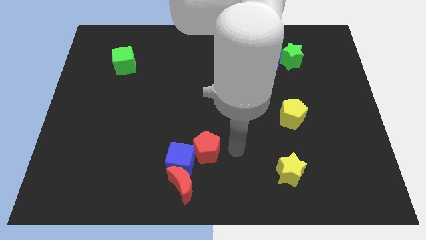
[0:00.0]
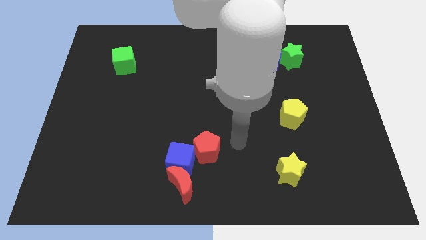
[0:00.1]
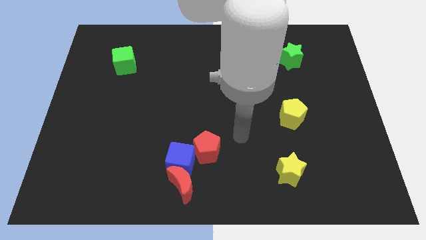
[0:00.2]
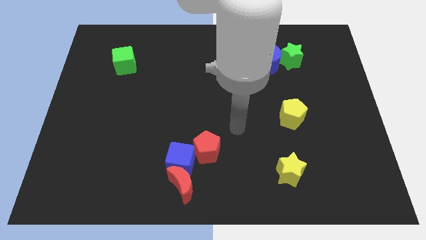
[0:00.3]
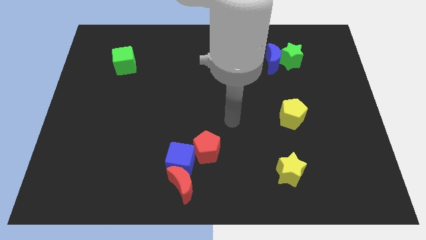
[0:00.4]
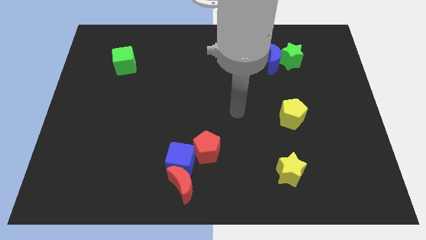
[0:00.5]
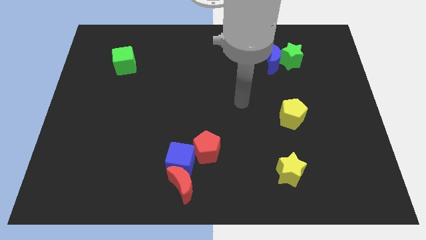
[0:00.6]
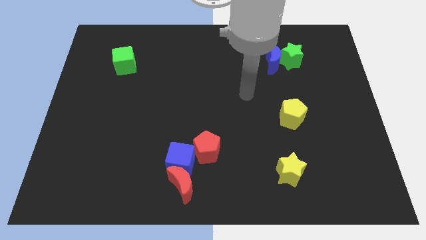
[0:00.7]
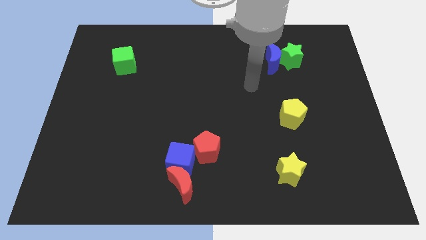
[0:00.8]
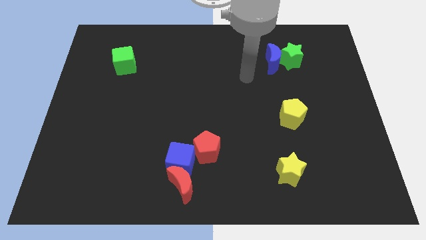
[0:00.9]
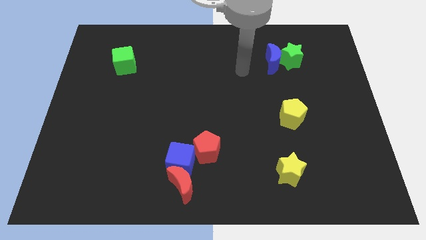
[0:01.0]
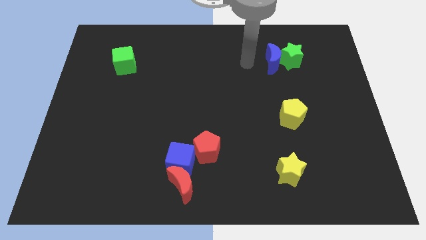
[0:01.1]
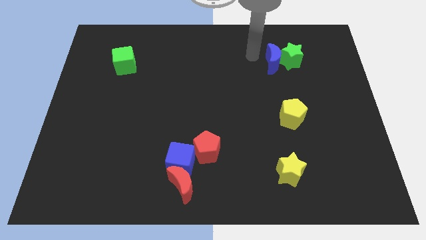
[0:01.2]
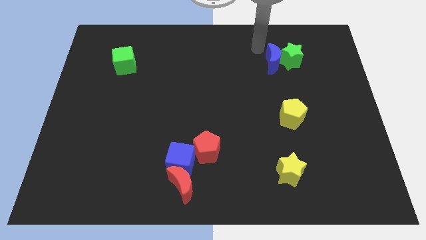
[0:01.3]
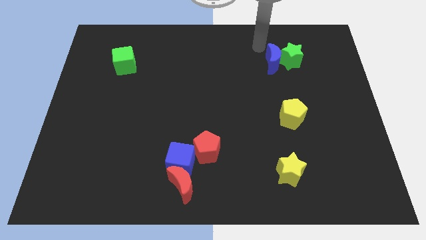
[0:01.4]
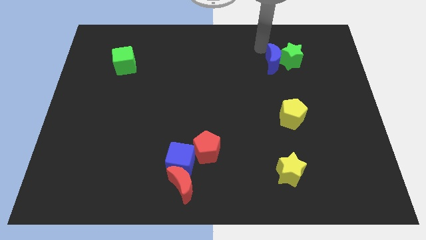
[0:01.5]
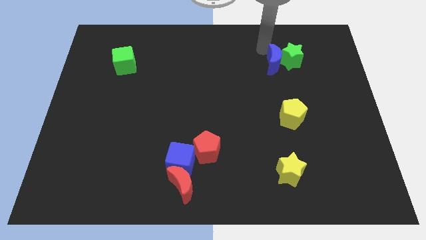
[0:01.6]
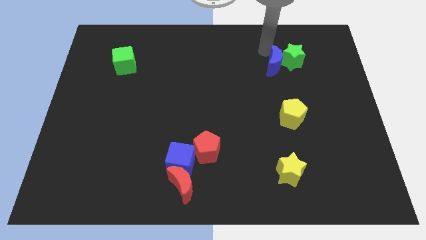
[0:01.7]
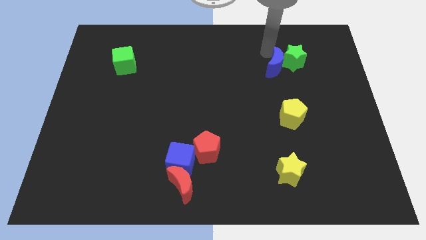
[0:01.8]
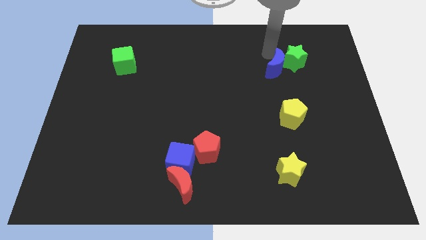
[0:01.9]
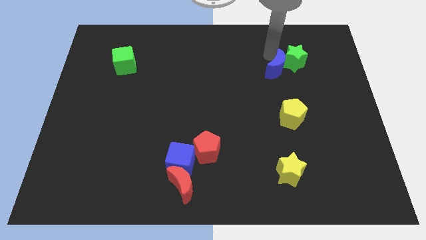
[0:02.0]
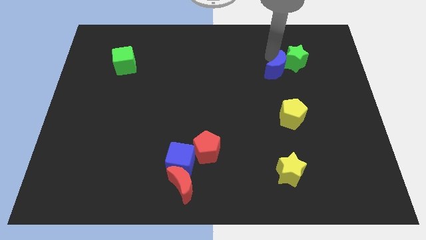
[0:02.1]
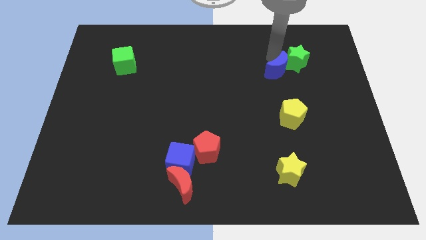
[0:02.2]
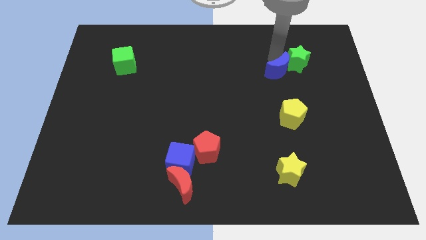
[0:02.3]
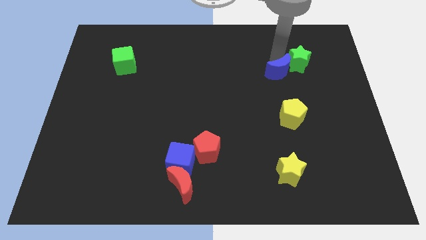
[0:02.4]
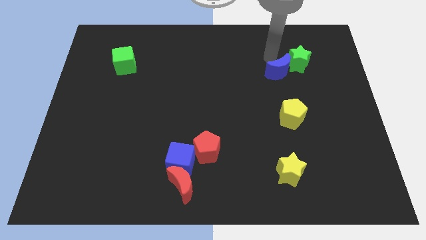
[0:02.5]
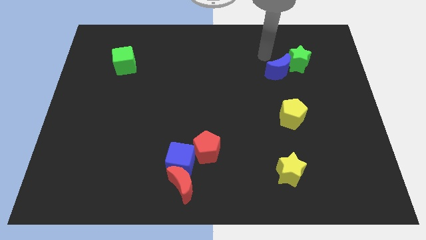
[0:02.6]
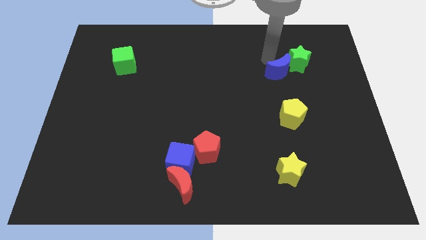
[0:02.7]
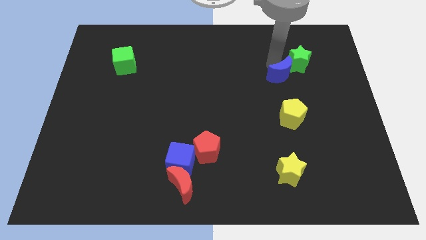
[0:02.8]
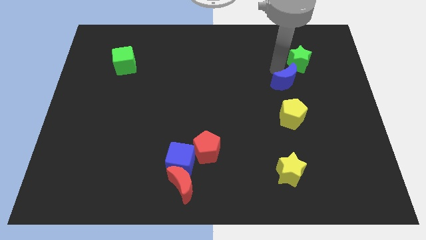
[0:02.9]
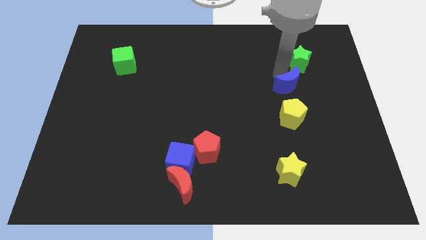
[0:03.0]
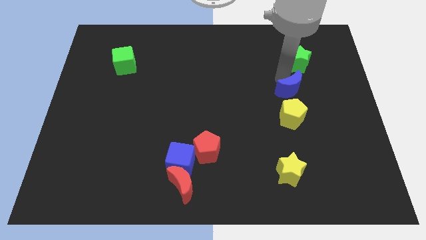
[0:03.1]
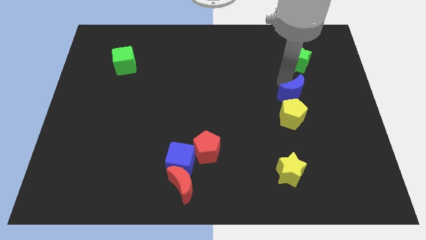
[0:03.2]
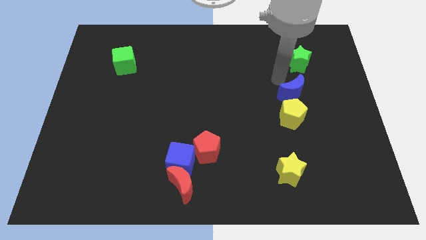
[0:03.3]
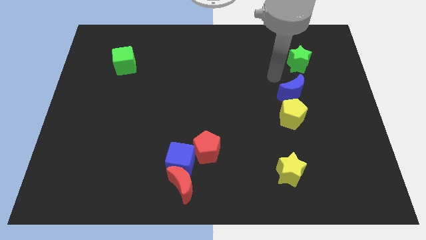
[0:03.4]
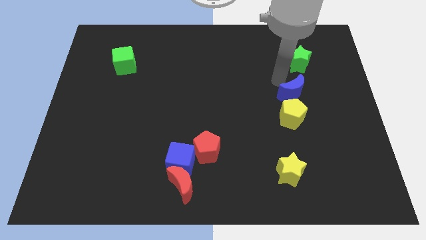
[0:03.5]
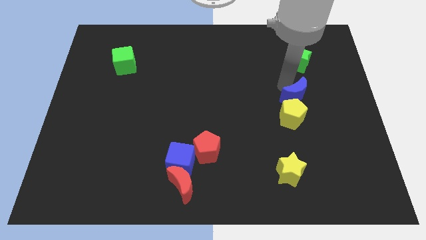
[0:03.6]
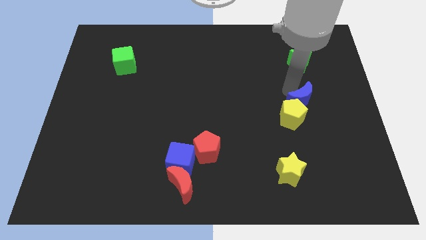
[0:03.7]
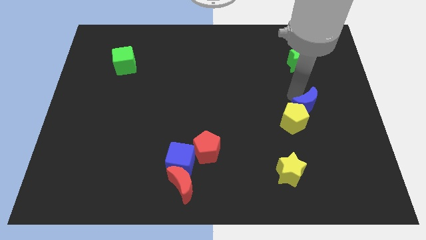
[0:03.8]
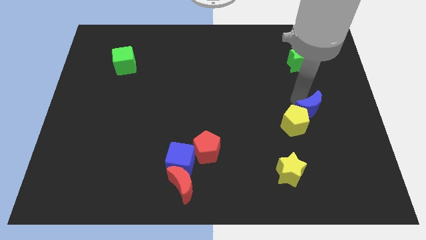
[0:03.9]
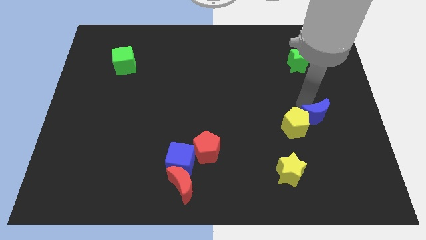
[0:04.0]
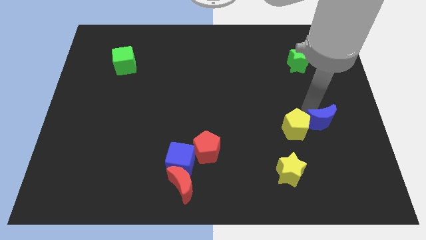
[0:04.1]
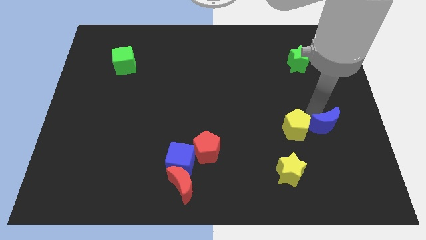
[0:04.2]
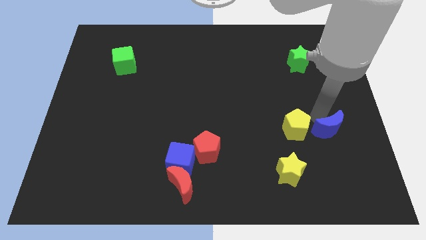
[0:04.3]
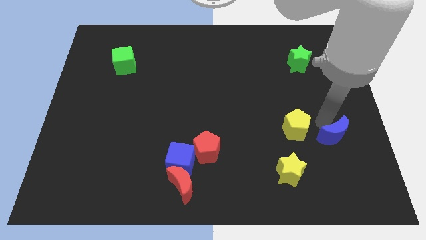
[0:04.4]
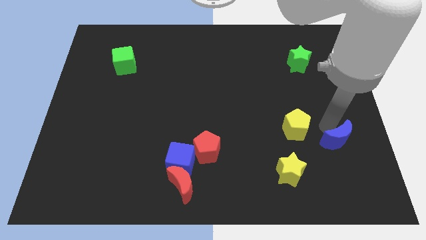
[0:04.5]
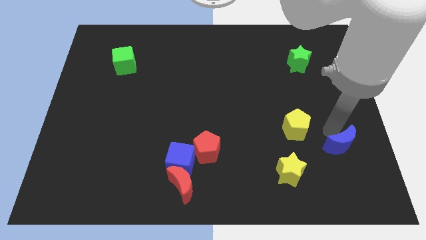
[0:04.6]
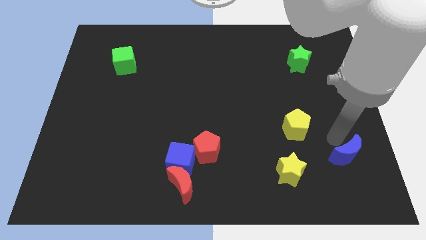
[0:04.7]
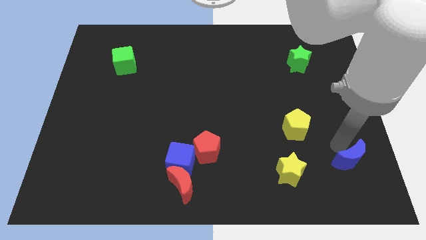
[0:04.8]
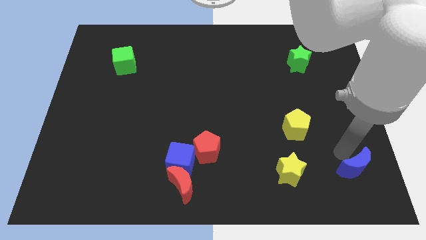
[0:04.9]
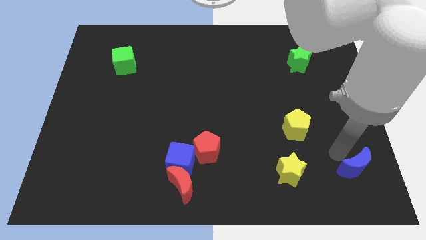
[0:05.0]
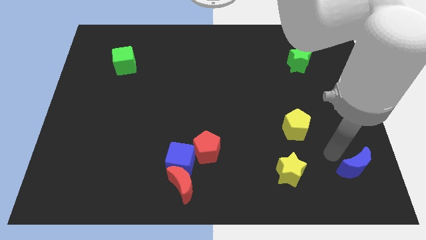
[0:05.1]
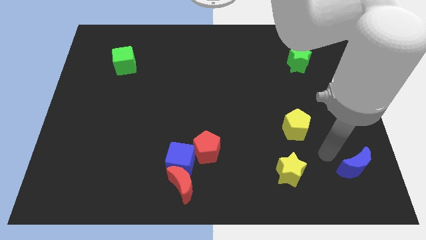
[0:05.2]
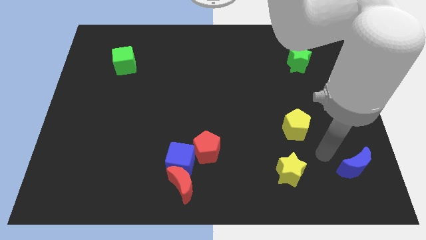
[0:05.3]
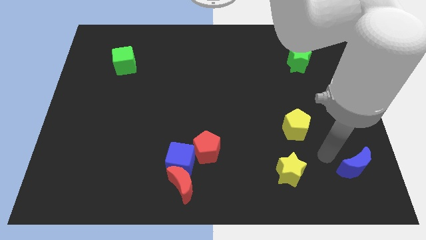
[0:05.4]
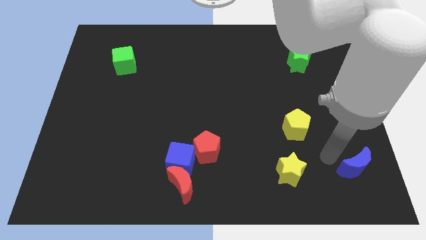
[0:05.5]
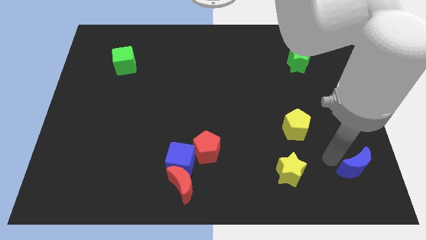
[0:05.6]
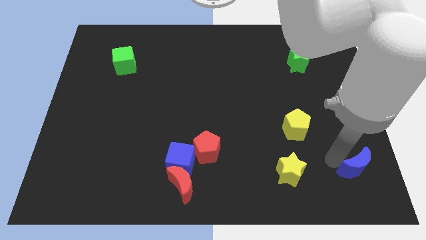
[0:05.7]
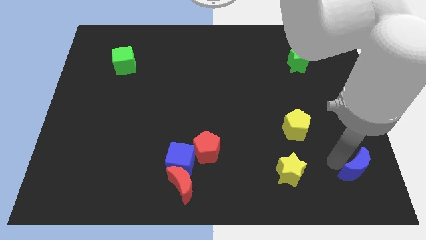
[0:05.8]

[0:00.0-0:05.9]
push the blue moon to the bottom right

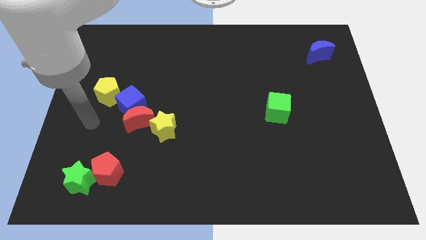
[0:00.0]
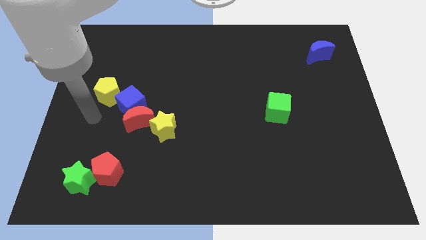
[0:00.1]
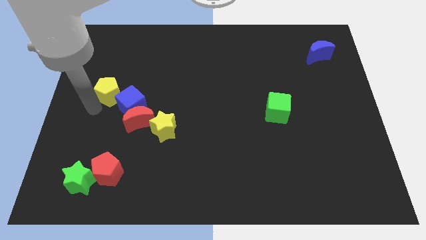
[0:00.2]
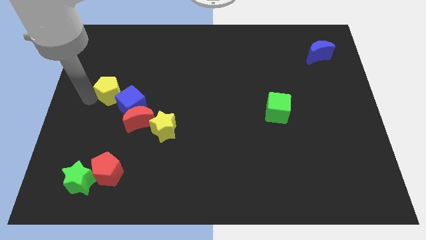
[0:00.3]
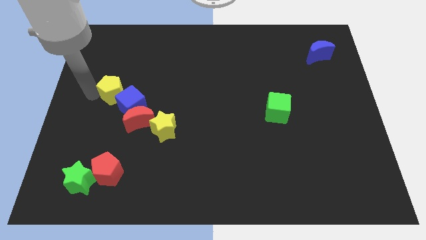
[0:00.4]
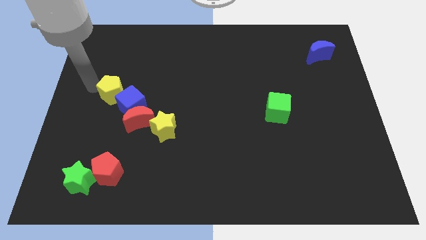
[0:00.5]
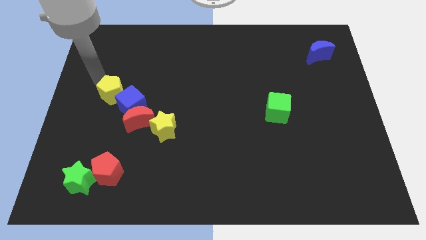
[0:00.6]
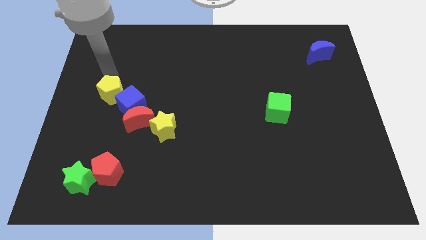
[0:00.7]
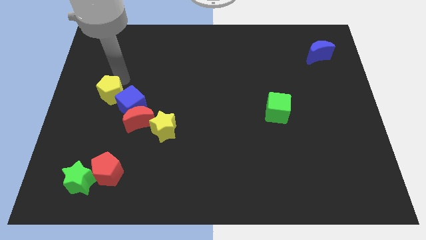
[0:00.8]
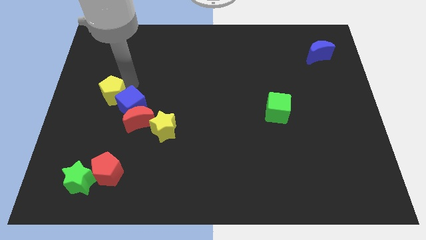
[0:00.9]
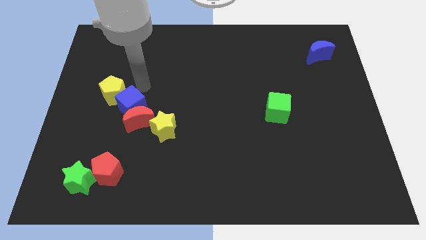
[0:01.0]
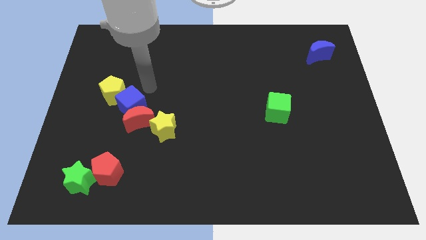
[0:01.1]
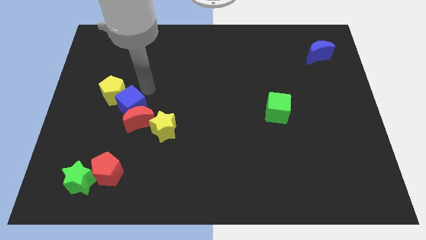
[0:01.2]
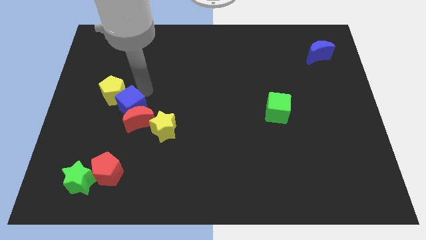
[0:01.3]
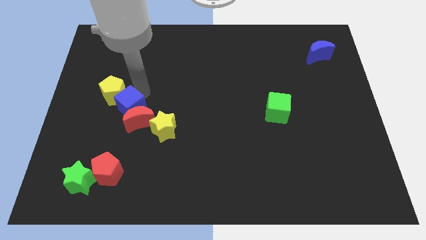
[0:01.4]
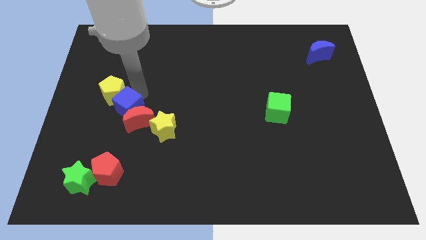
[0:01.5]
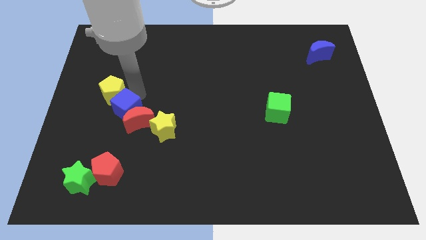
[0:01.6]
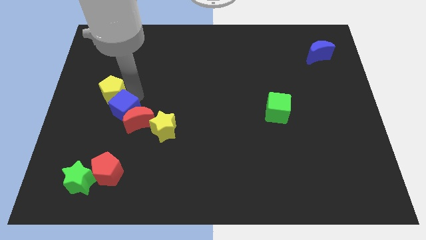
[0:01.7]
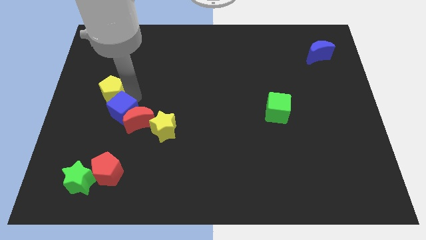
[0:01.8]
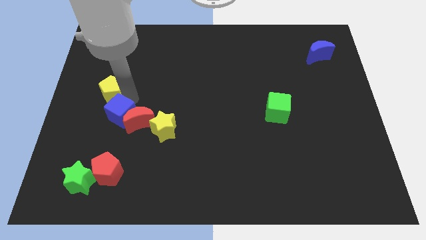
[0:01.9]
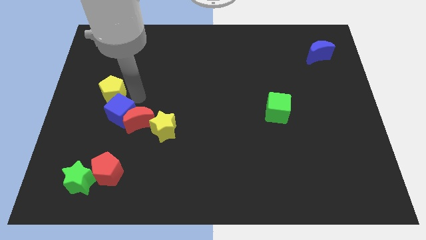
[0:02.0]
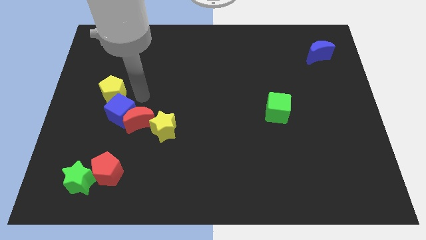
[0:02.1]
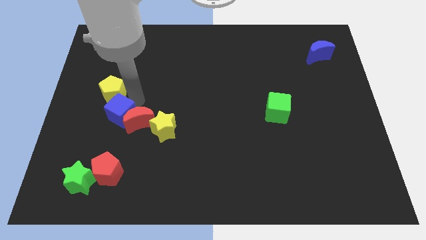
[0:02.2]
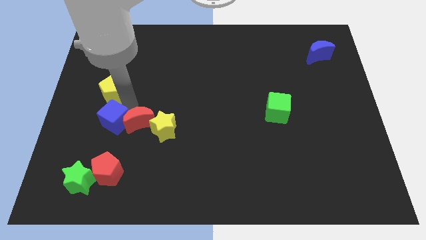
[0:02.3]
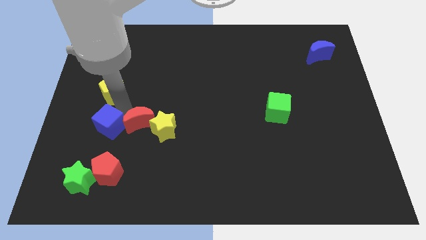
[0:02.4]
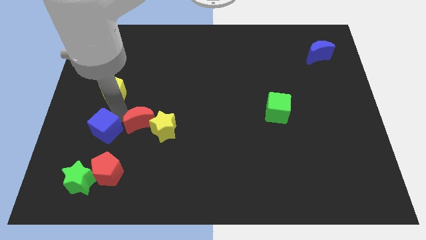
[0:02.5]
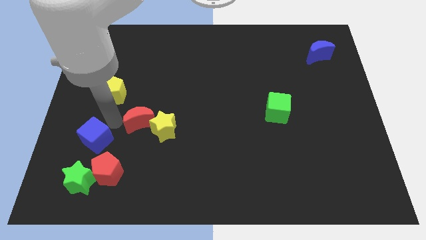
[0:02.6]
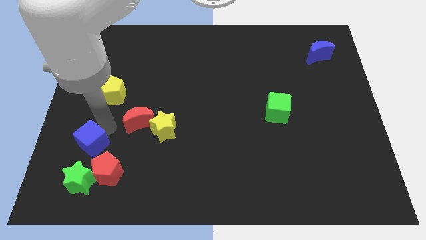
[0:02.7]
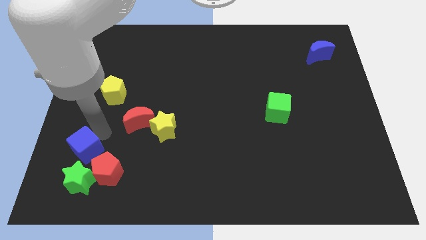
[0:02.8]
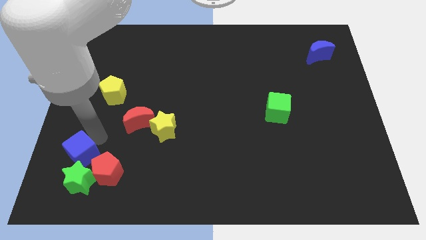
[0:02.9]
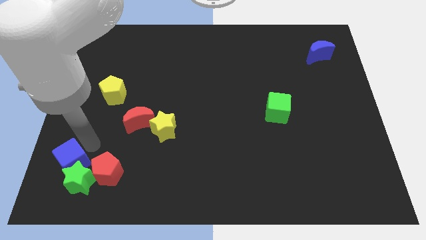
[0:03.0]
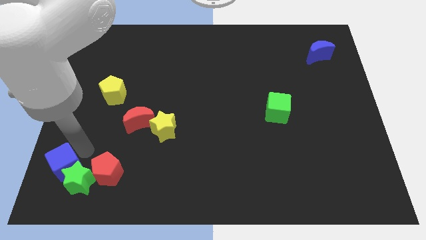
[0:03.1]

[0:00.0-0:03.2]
put the blue cube to the bottom left
